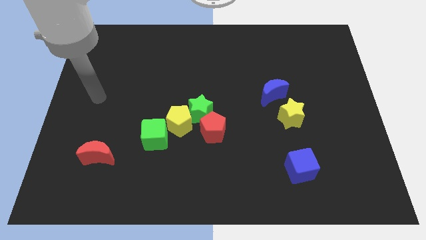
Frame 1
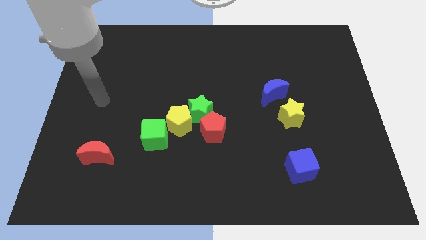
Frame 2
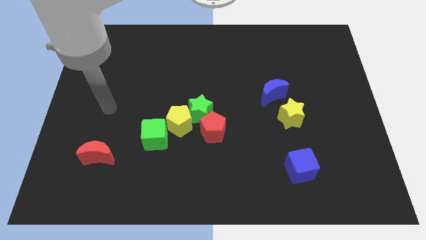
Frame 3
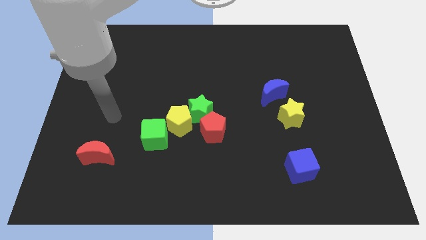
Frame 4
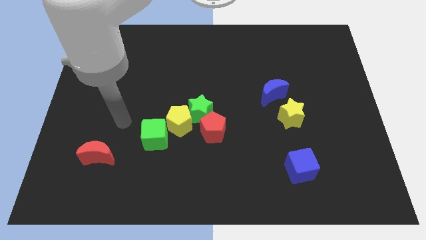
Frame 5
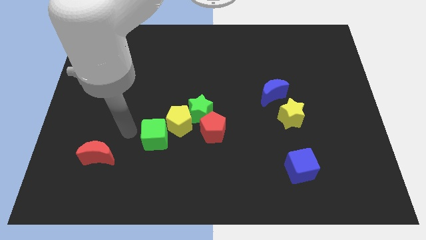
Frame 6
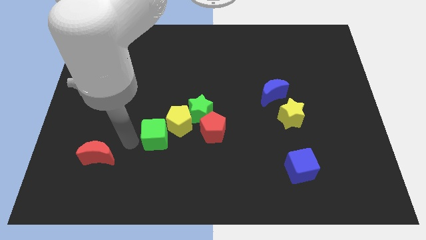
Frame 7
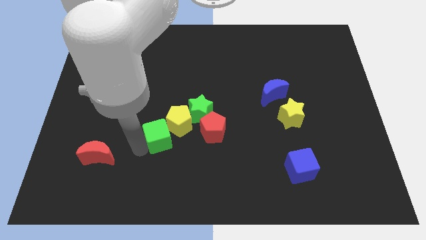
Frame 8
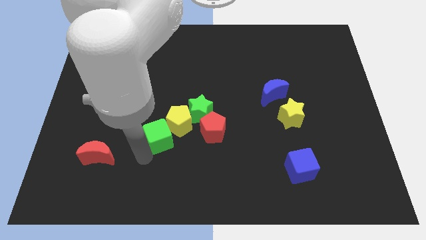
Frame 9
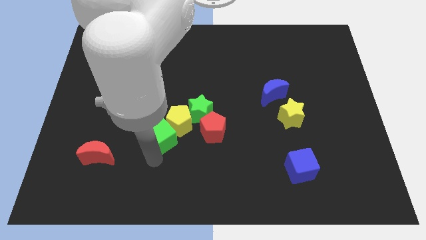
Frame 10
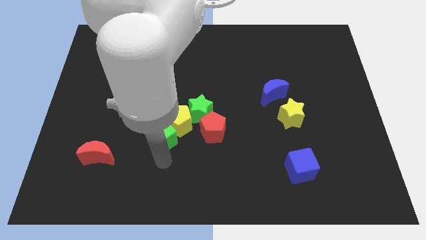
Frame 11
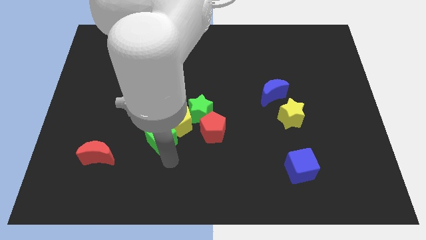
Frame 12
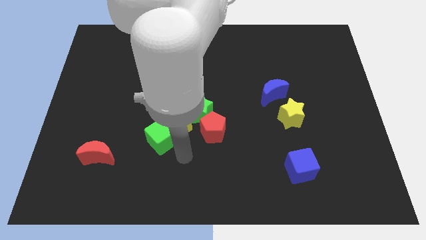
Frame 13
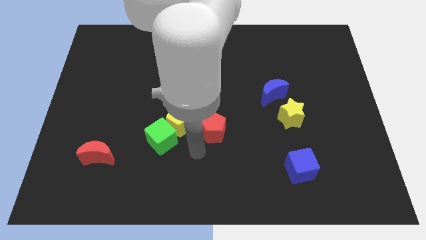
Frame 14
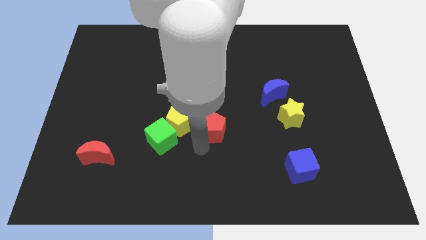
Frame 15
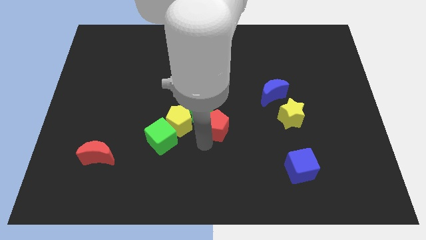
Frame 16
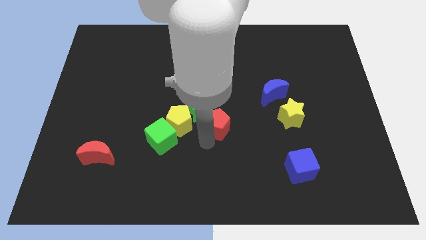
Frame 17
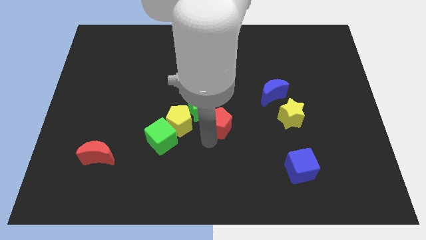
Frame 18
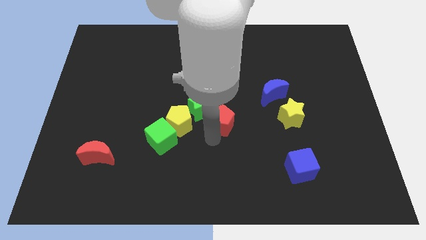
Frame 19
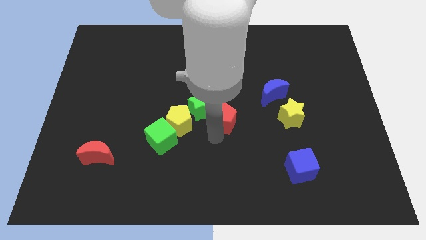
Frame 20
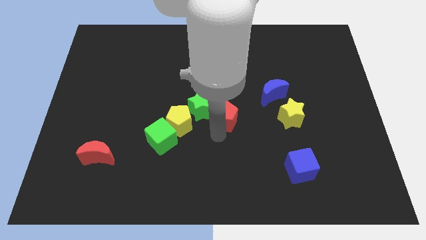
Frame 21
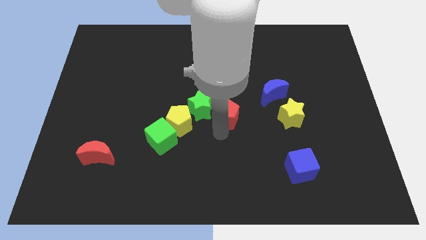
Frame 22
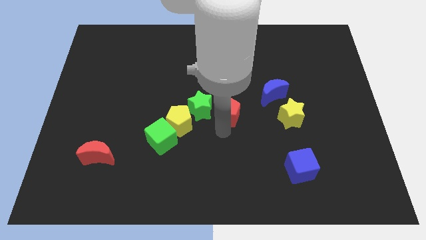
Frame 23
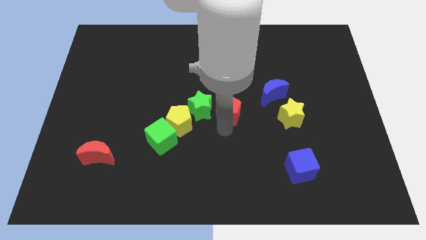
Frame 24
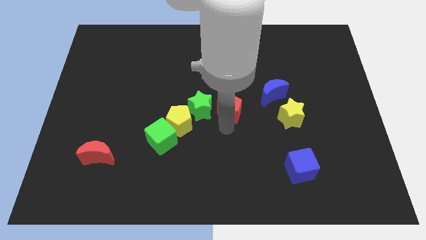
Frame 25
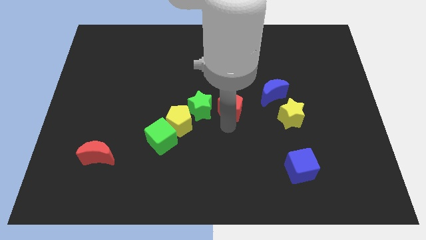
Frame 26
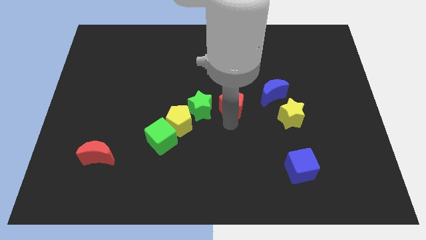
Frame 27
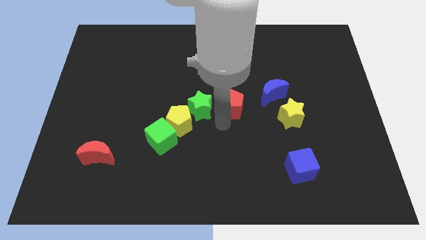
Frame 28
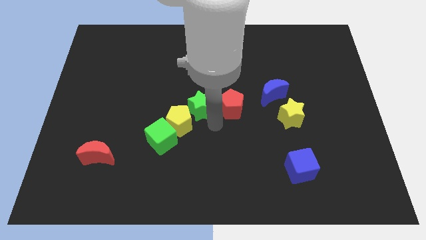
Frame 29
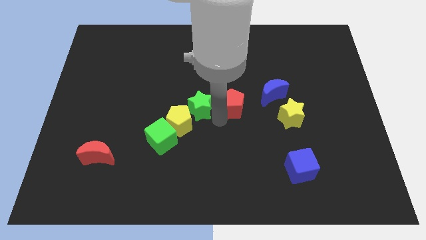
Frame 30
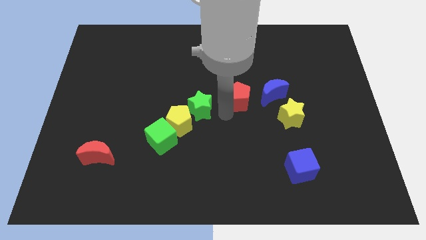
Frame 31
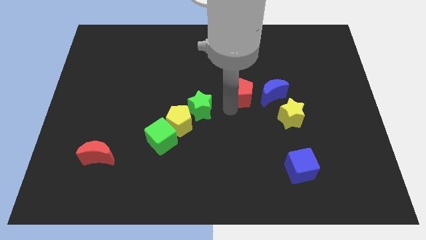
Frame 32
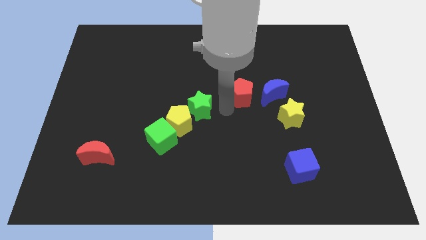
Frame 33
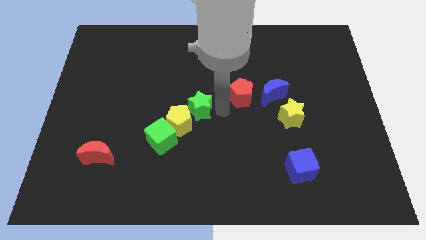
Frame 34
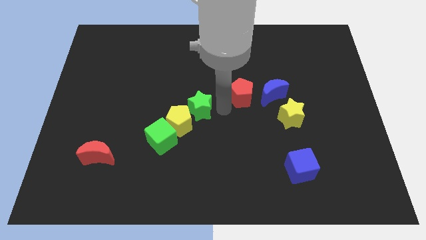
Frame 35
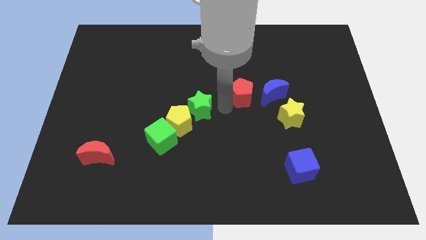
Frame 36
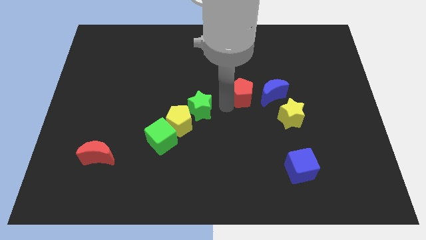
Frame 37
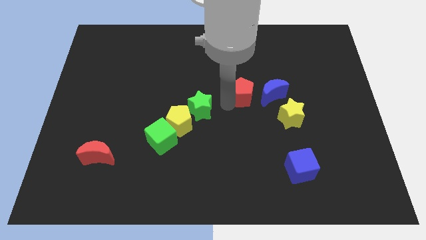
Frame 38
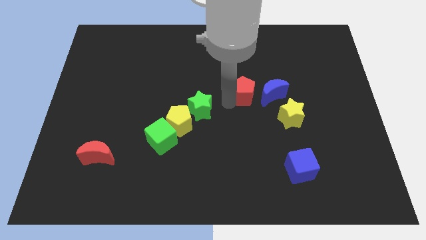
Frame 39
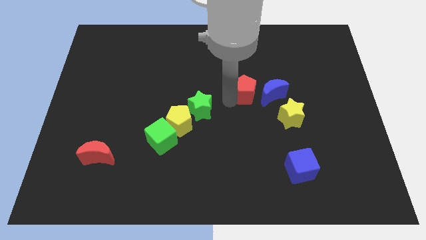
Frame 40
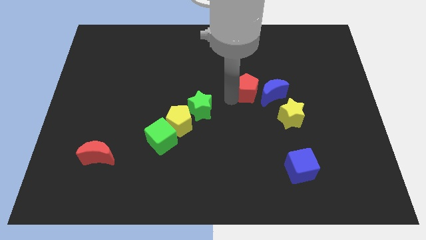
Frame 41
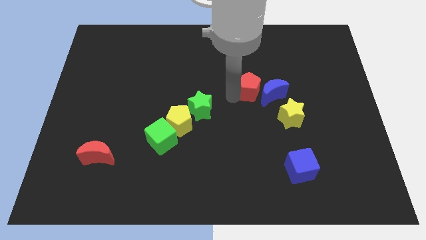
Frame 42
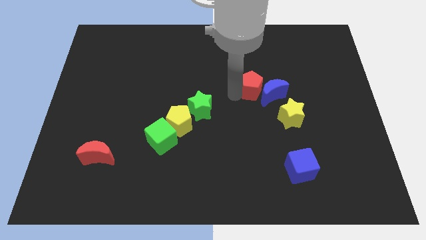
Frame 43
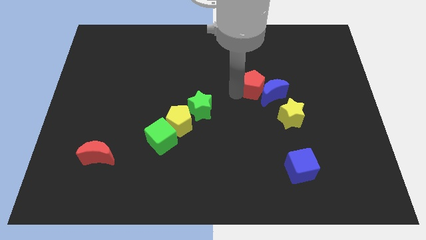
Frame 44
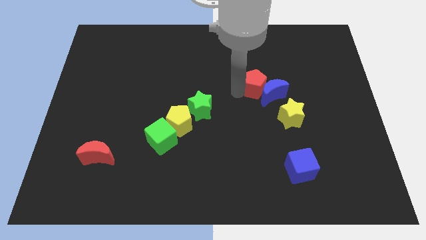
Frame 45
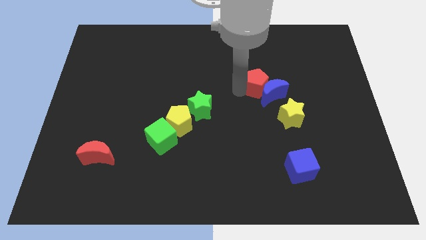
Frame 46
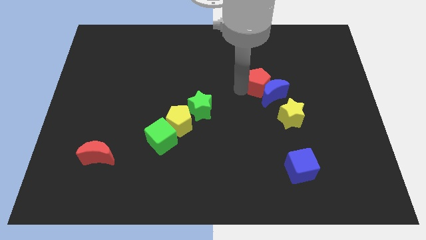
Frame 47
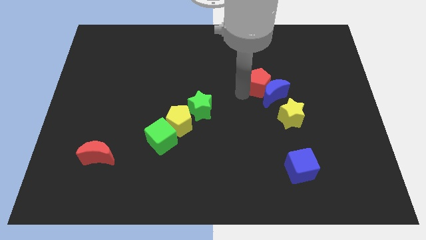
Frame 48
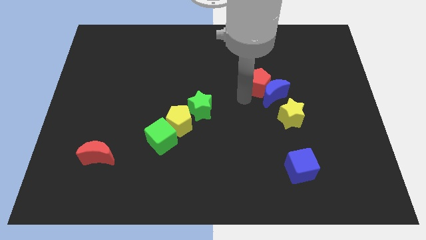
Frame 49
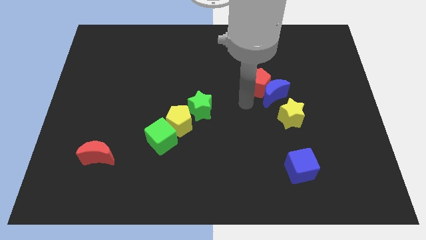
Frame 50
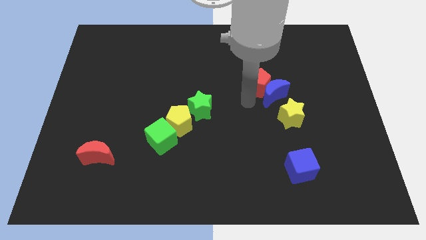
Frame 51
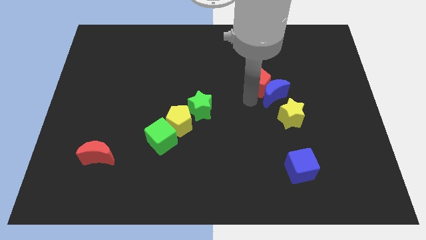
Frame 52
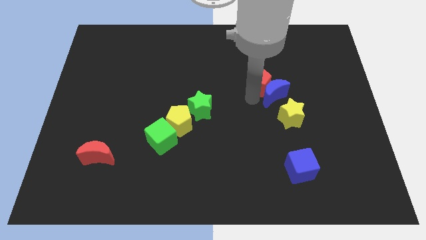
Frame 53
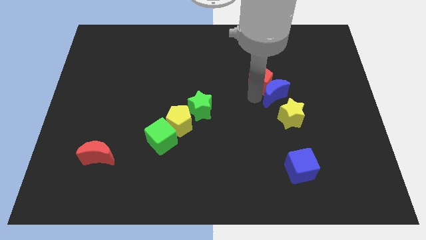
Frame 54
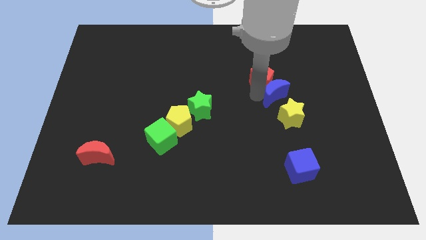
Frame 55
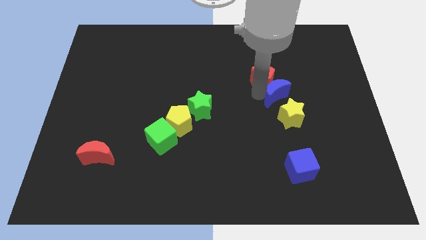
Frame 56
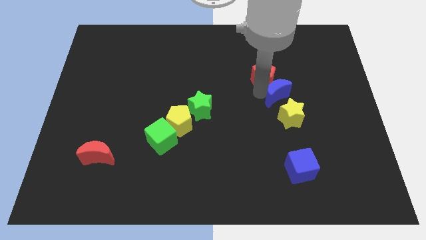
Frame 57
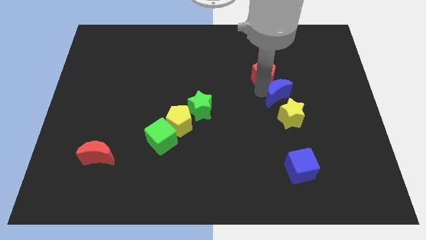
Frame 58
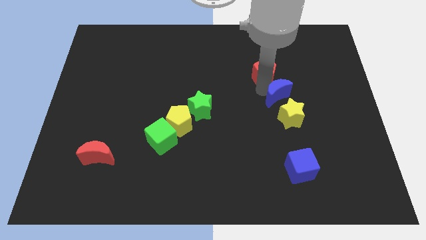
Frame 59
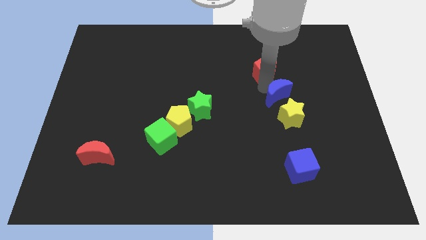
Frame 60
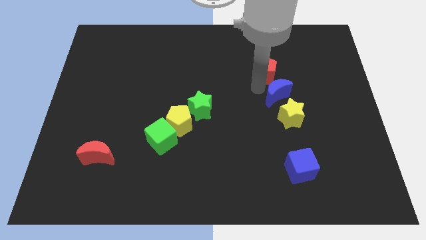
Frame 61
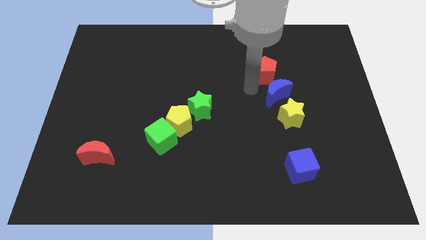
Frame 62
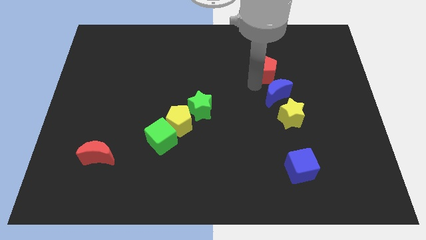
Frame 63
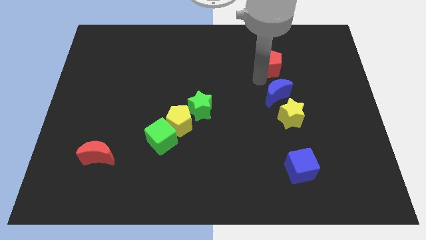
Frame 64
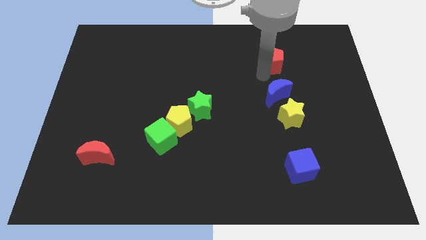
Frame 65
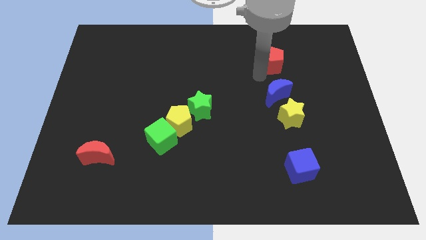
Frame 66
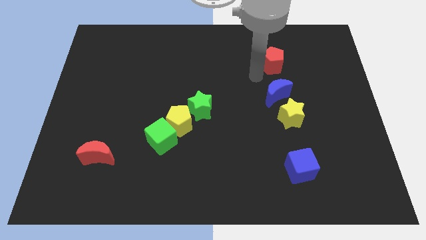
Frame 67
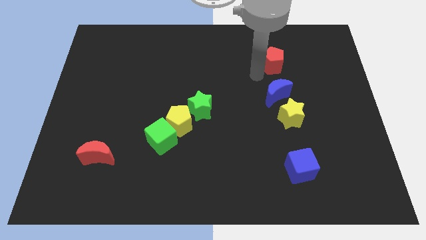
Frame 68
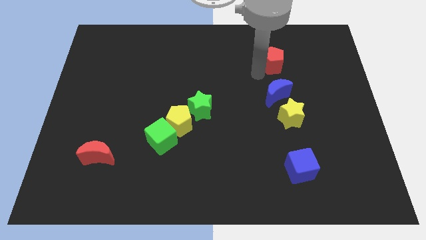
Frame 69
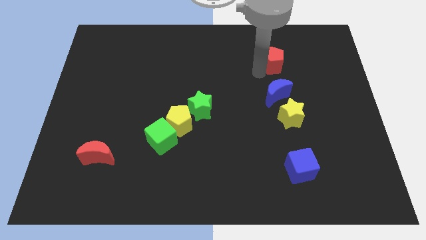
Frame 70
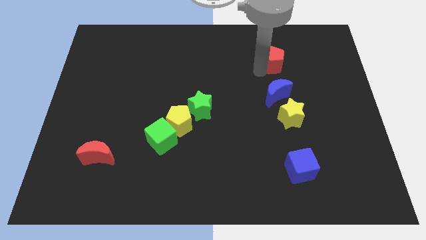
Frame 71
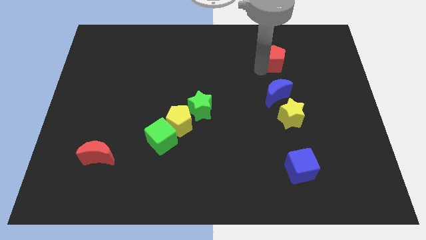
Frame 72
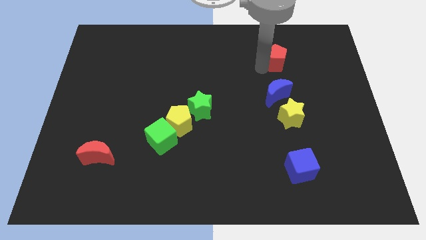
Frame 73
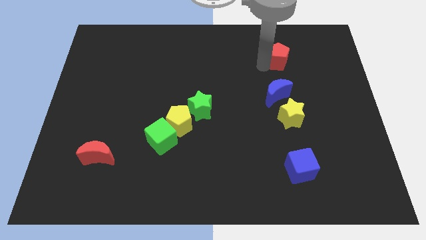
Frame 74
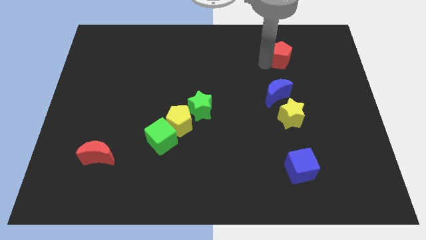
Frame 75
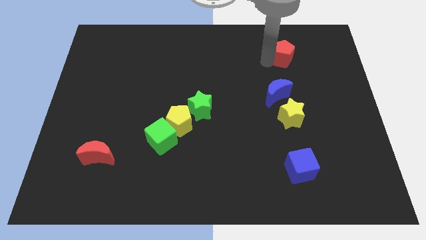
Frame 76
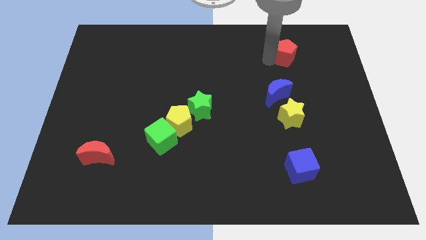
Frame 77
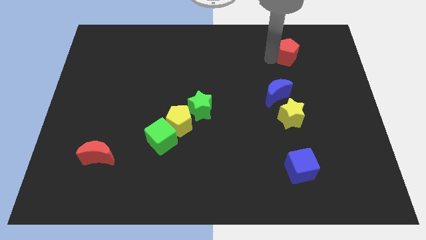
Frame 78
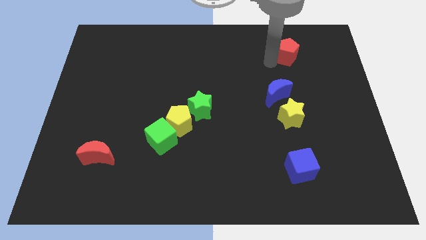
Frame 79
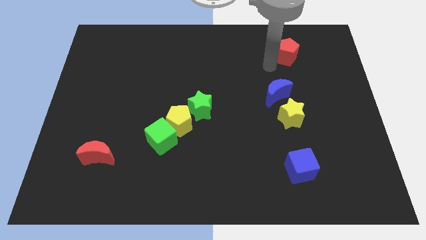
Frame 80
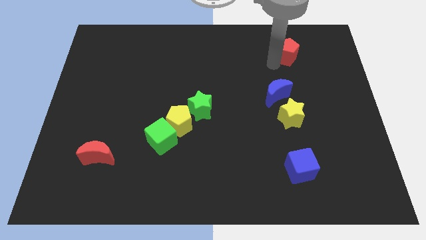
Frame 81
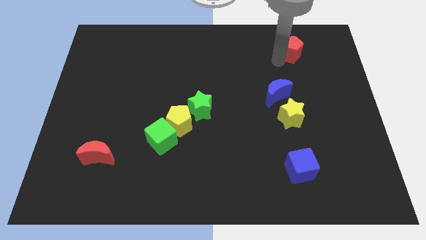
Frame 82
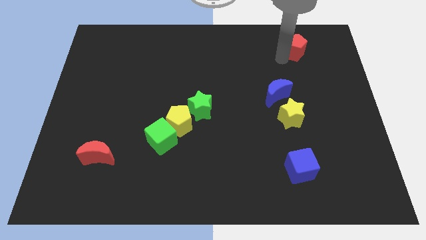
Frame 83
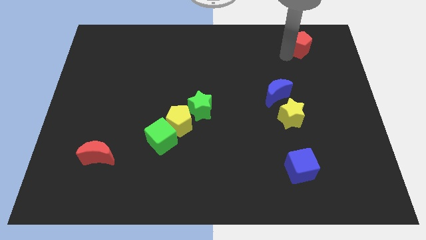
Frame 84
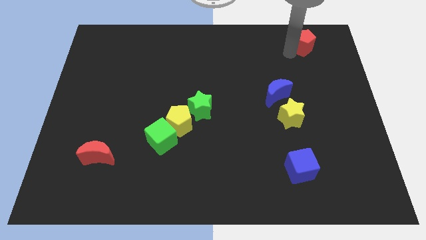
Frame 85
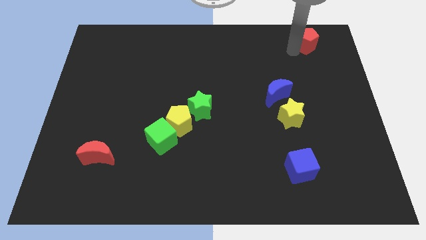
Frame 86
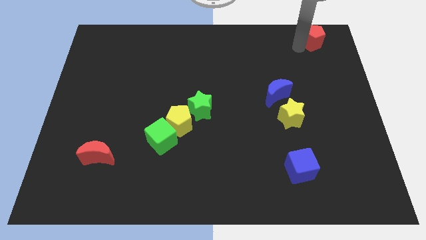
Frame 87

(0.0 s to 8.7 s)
put the red pentagon to the top right
